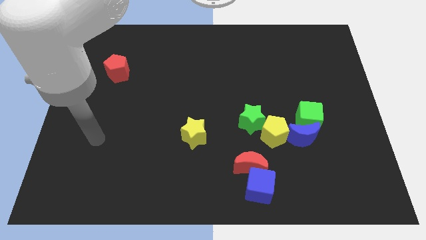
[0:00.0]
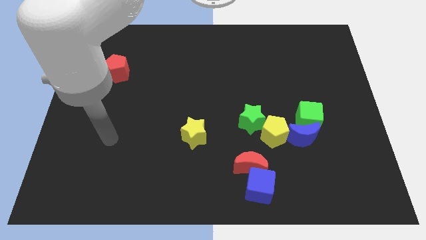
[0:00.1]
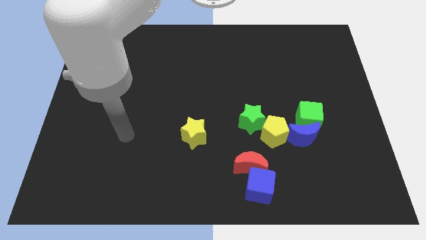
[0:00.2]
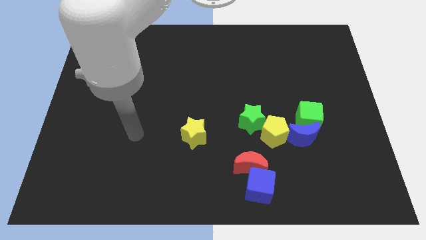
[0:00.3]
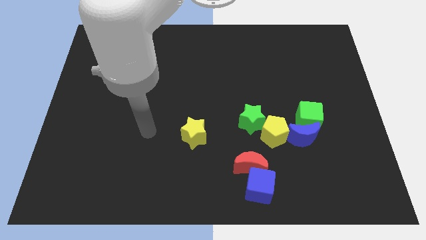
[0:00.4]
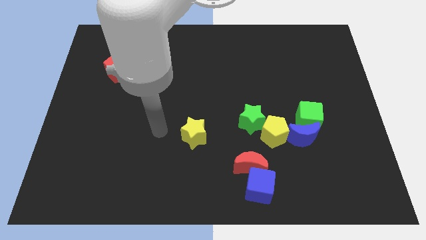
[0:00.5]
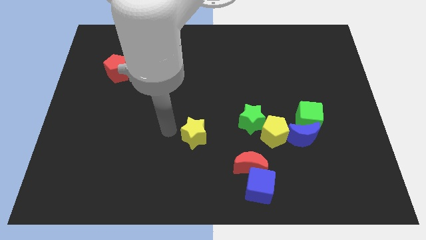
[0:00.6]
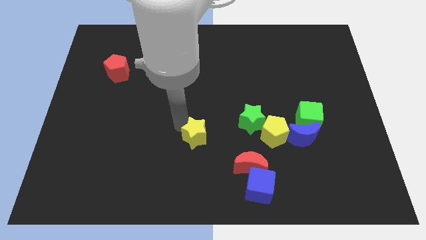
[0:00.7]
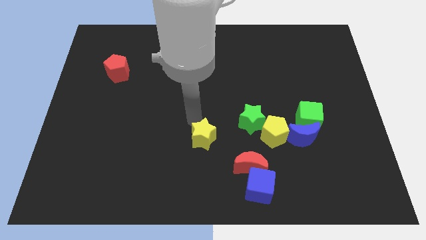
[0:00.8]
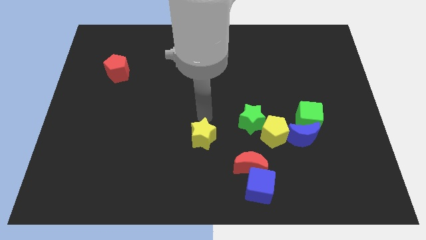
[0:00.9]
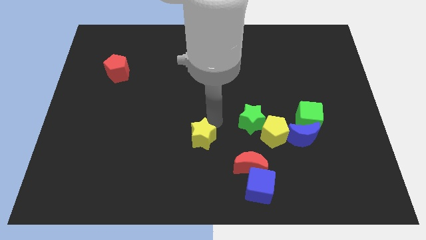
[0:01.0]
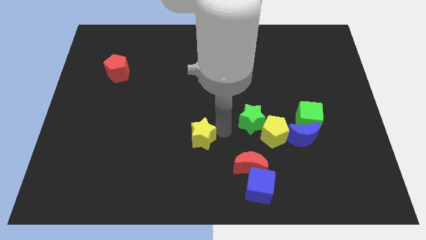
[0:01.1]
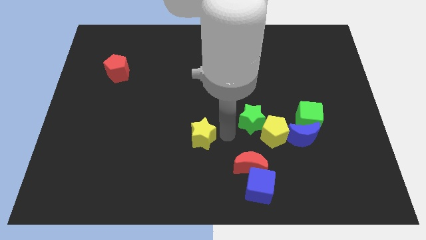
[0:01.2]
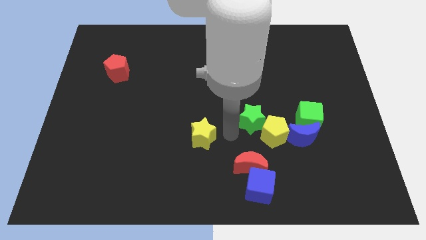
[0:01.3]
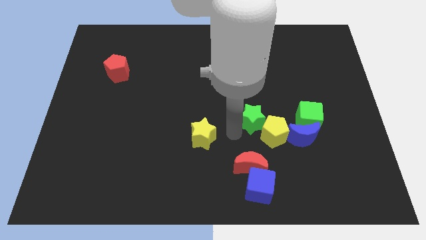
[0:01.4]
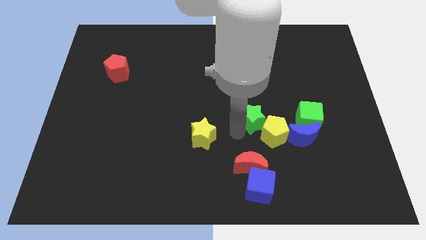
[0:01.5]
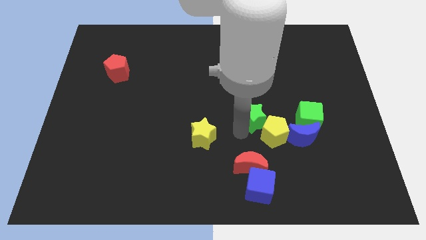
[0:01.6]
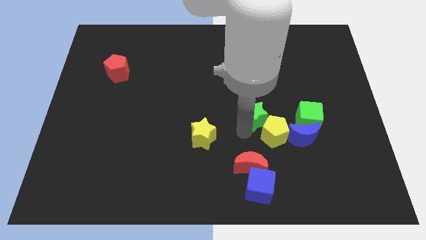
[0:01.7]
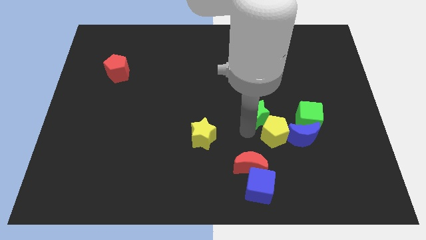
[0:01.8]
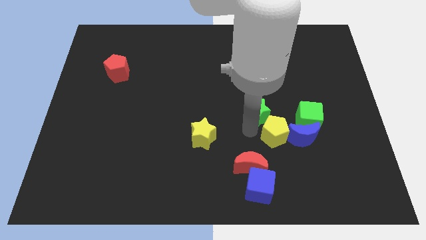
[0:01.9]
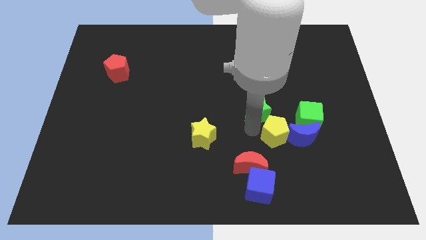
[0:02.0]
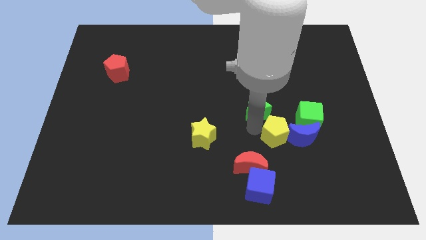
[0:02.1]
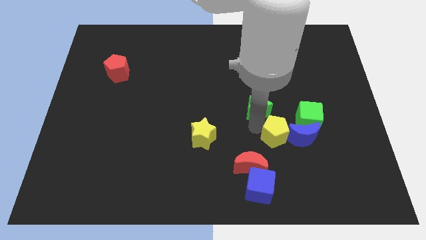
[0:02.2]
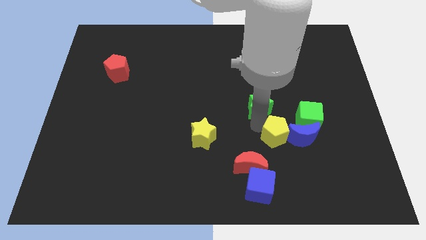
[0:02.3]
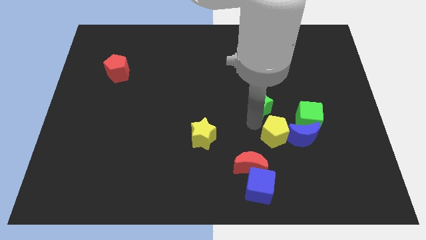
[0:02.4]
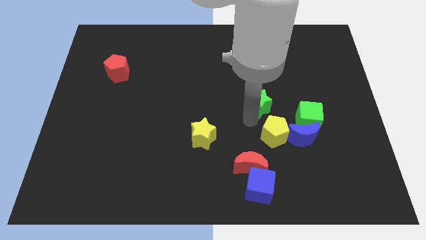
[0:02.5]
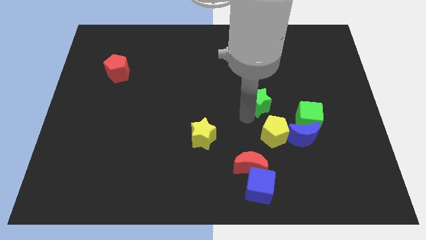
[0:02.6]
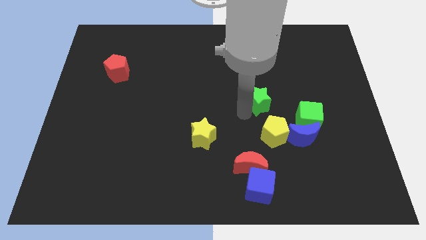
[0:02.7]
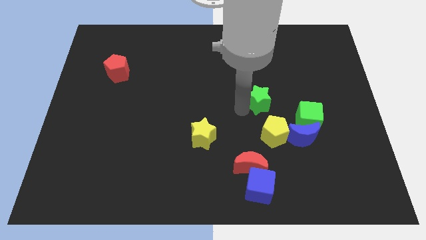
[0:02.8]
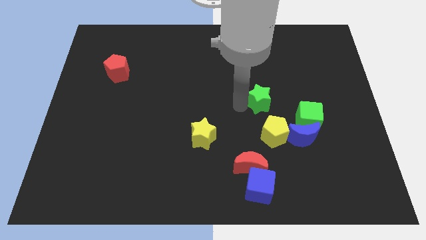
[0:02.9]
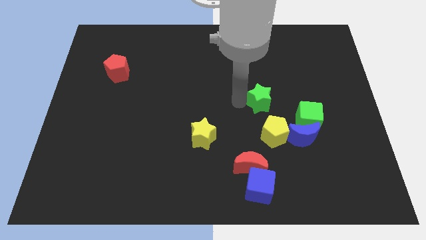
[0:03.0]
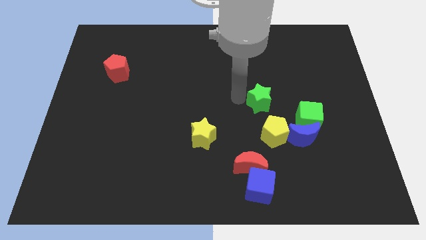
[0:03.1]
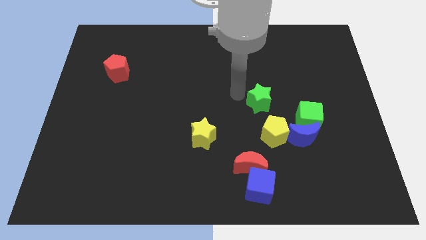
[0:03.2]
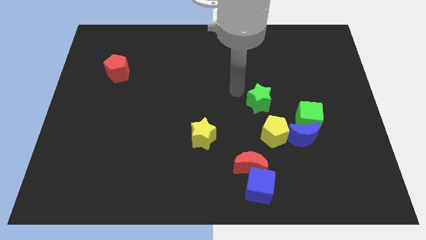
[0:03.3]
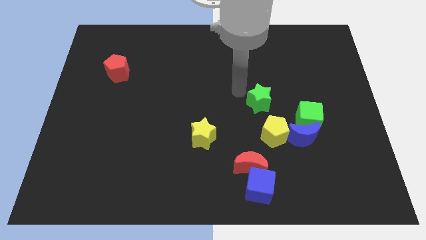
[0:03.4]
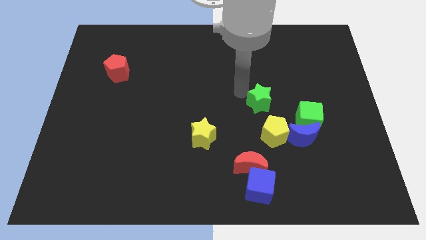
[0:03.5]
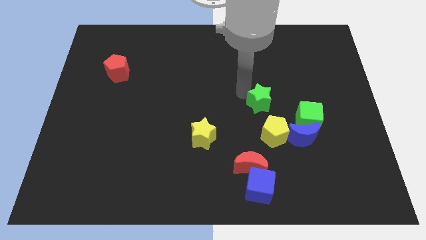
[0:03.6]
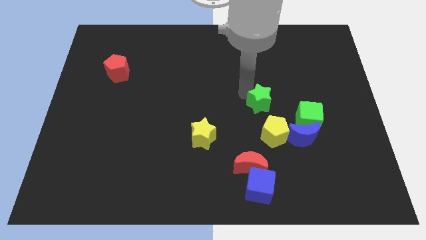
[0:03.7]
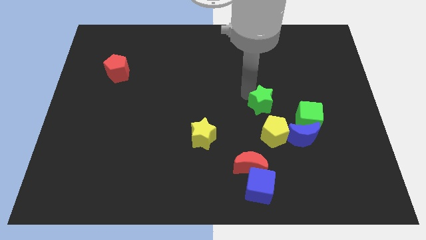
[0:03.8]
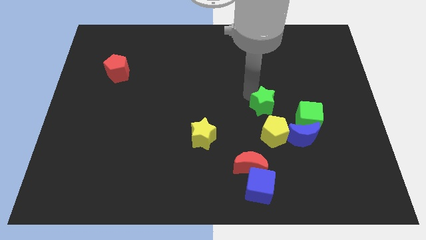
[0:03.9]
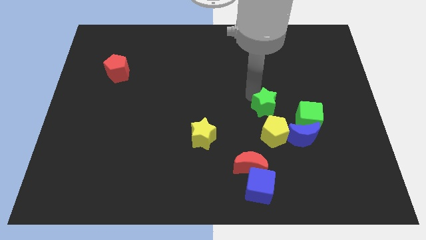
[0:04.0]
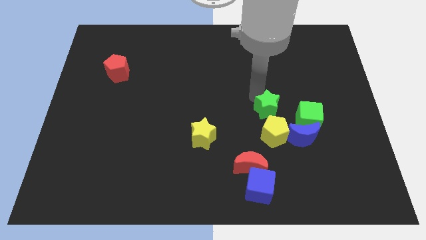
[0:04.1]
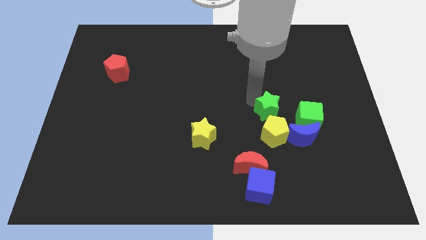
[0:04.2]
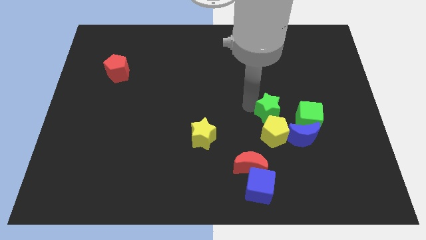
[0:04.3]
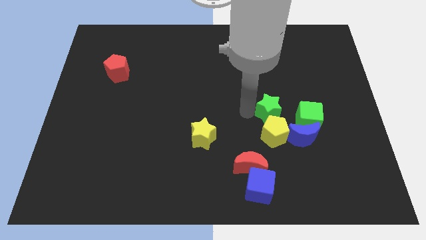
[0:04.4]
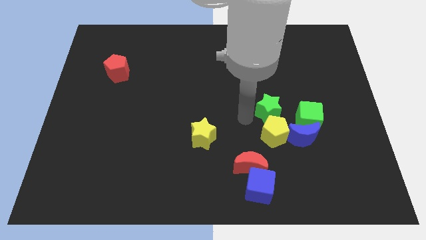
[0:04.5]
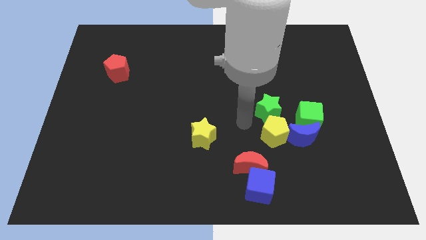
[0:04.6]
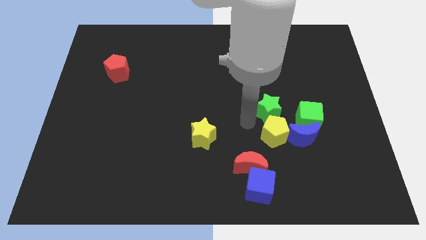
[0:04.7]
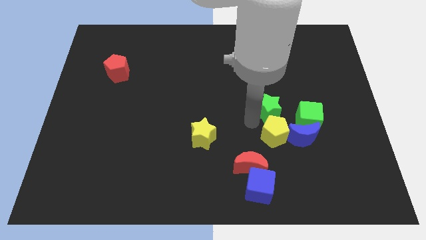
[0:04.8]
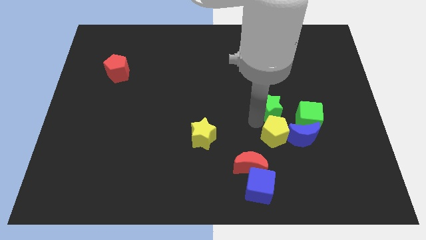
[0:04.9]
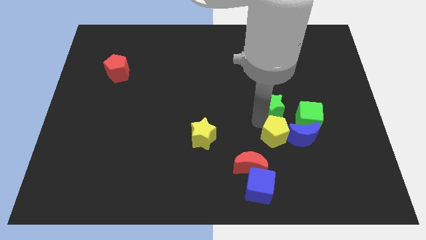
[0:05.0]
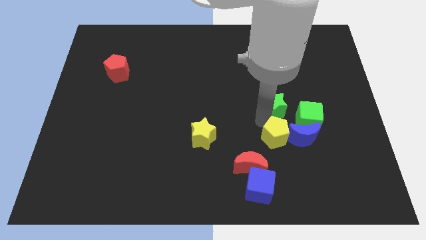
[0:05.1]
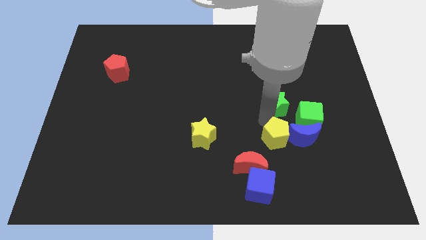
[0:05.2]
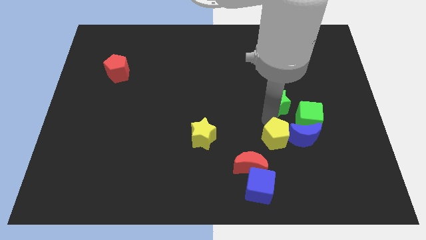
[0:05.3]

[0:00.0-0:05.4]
put the green star above the blue moon

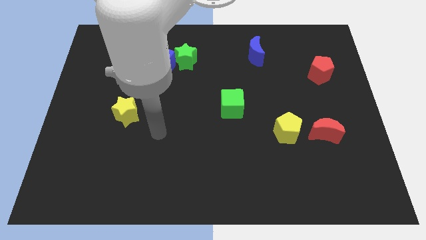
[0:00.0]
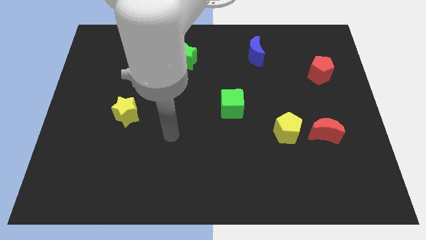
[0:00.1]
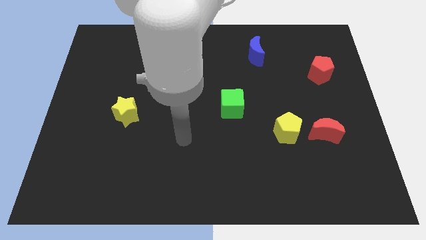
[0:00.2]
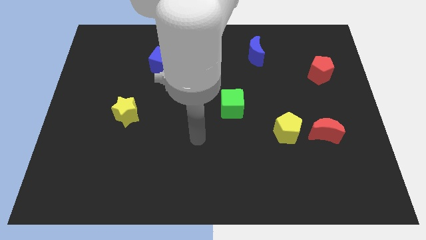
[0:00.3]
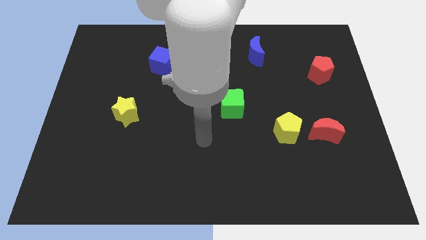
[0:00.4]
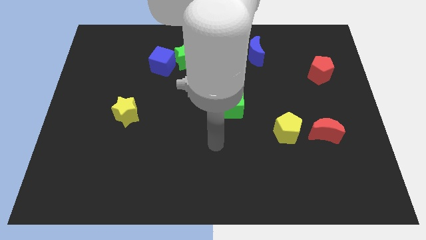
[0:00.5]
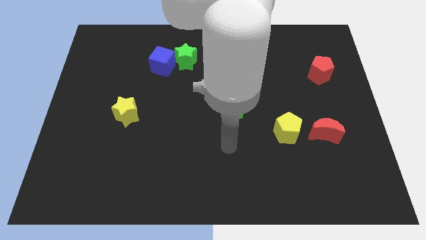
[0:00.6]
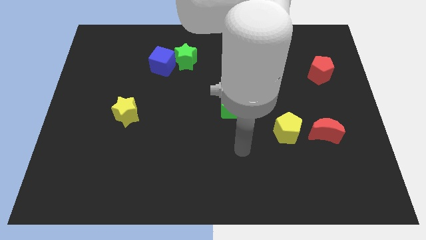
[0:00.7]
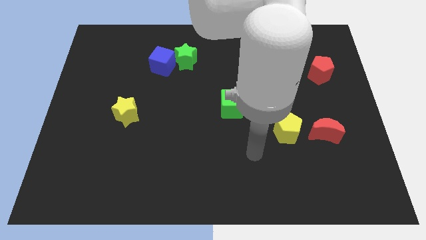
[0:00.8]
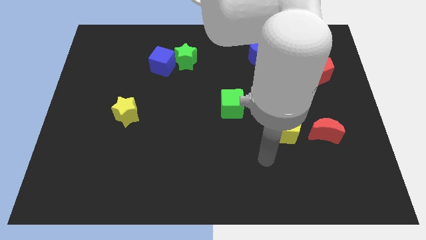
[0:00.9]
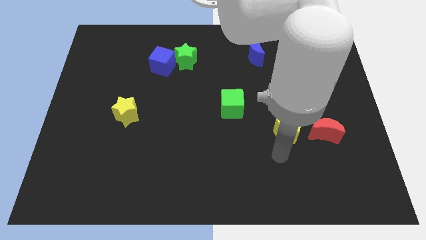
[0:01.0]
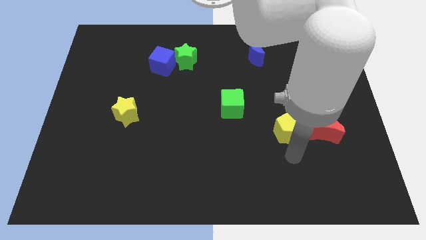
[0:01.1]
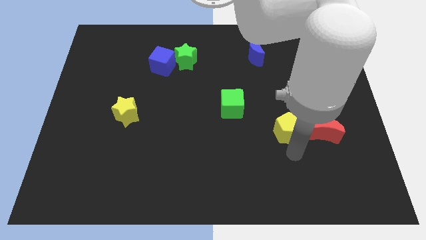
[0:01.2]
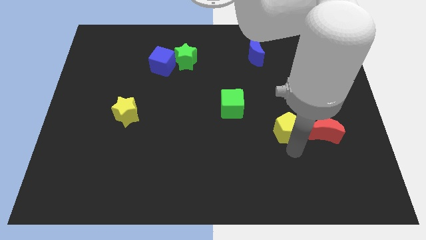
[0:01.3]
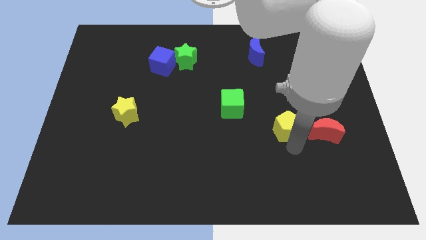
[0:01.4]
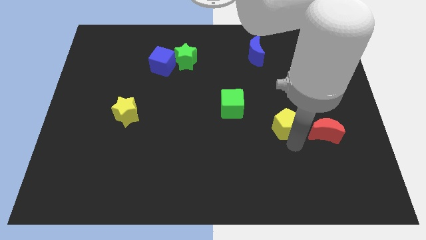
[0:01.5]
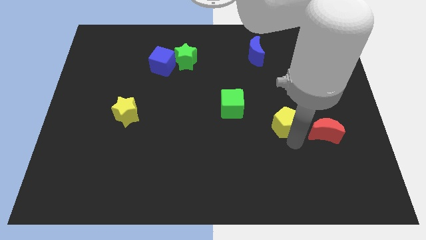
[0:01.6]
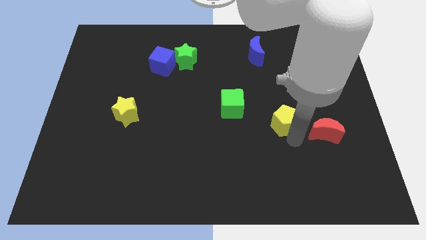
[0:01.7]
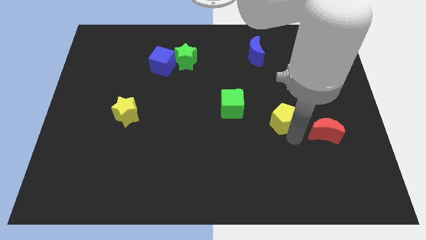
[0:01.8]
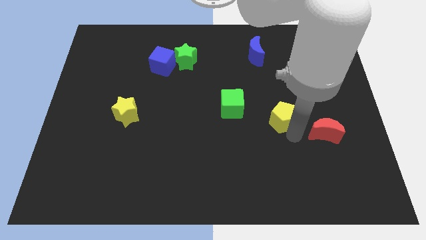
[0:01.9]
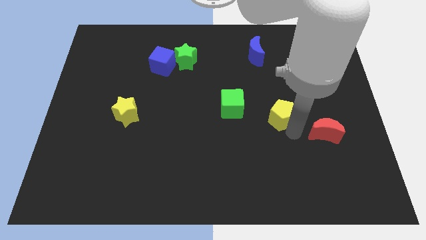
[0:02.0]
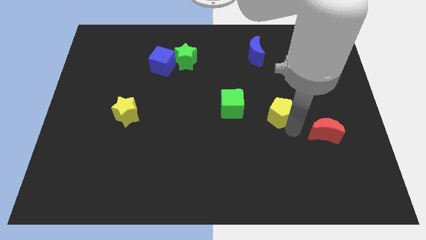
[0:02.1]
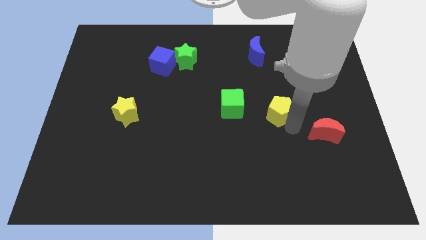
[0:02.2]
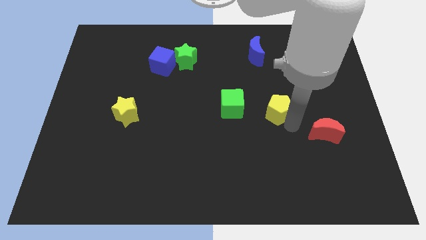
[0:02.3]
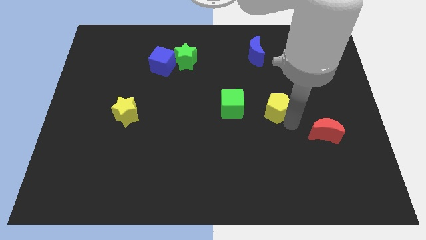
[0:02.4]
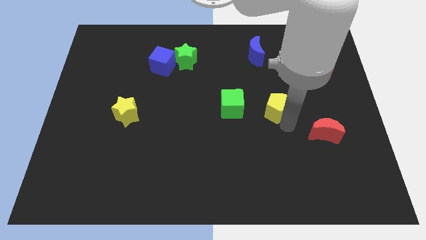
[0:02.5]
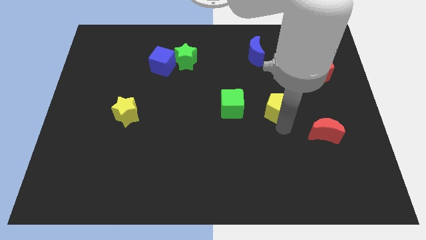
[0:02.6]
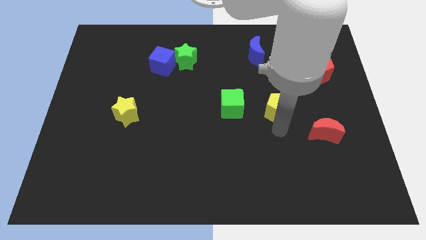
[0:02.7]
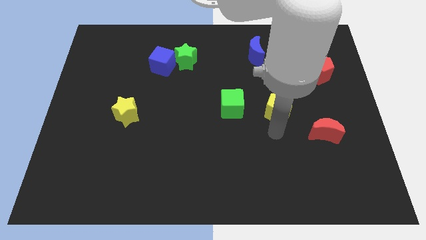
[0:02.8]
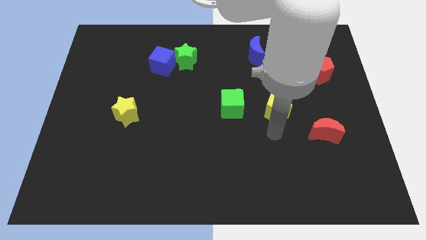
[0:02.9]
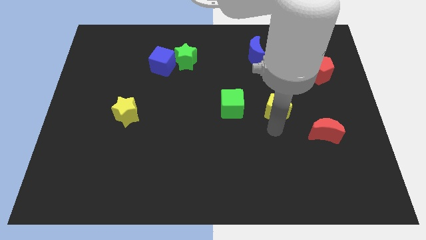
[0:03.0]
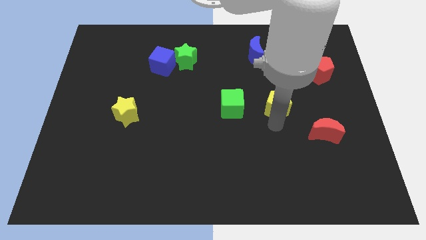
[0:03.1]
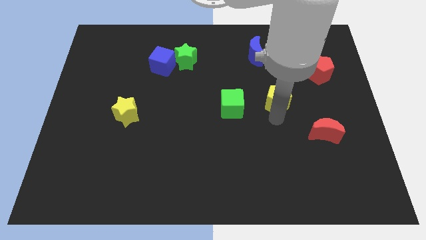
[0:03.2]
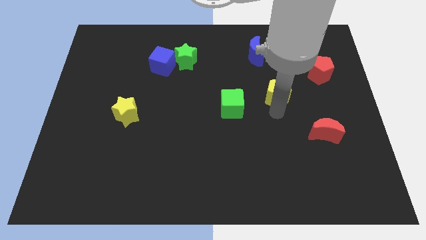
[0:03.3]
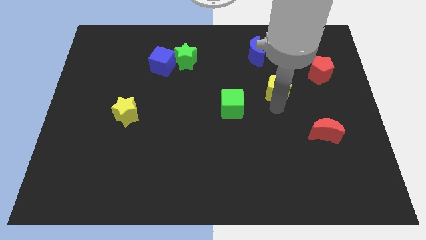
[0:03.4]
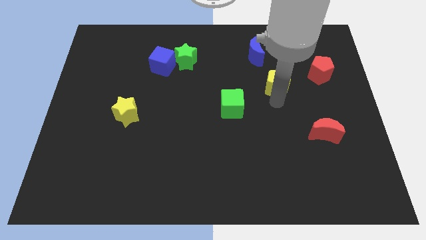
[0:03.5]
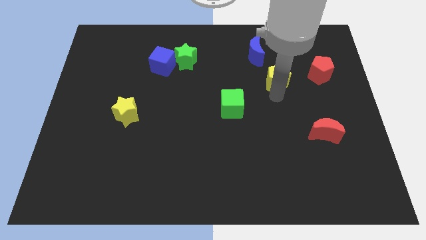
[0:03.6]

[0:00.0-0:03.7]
move the yellow pentagon to the bottom right side of the blue moon
